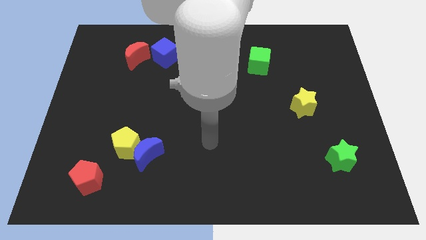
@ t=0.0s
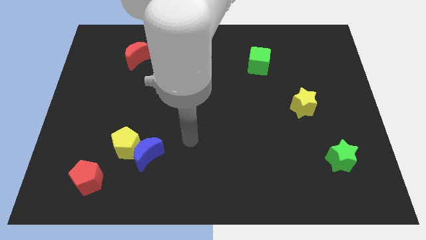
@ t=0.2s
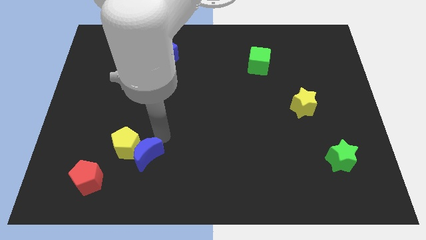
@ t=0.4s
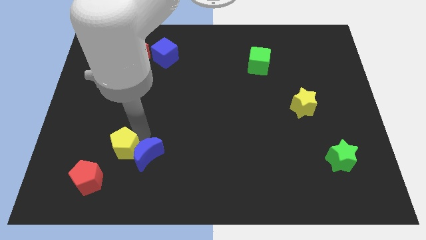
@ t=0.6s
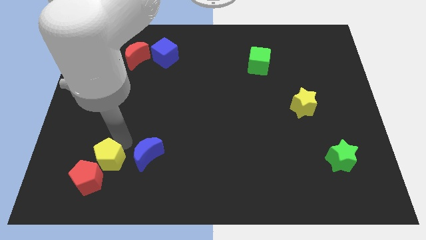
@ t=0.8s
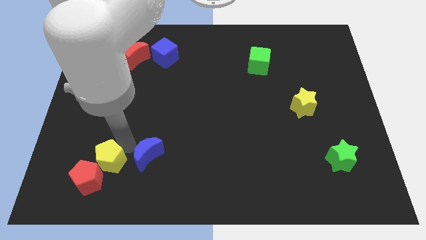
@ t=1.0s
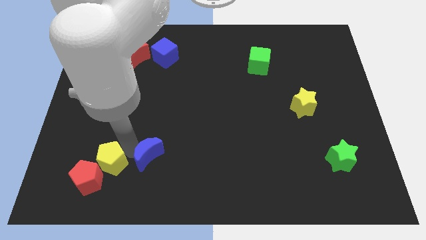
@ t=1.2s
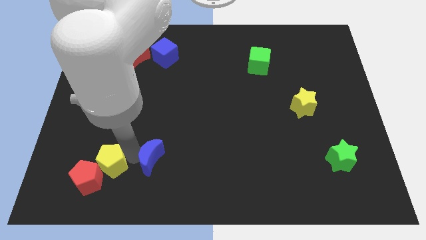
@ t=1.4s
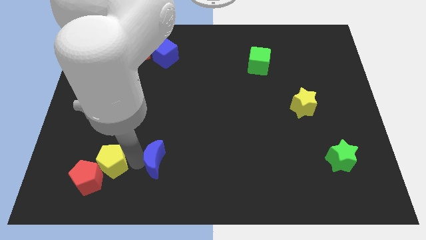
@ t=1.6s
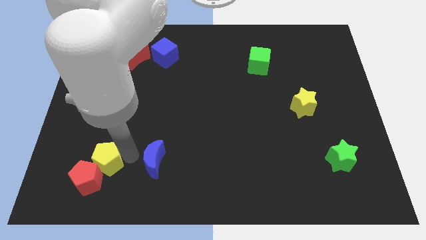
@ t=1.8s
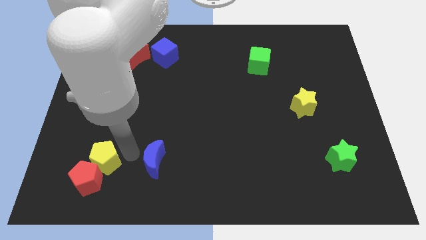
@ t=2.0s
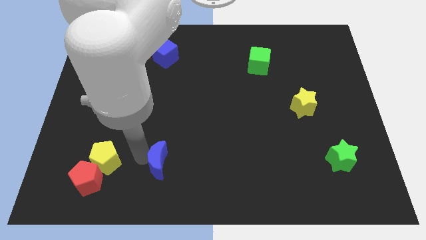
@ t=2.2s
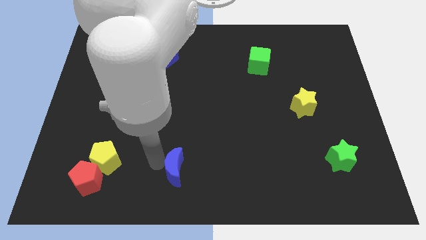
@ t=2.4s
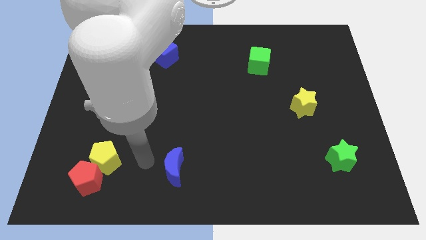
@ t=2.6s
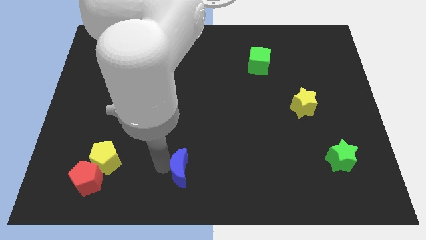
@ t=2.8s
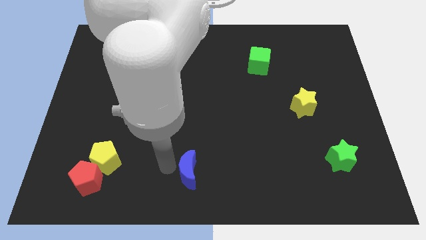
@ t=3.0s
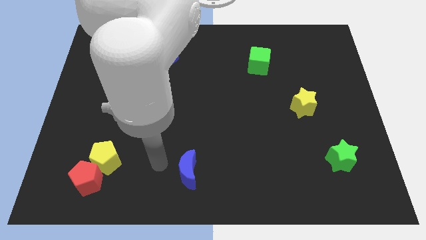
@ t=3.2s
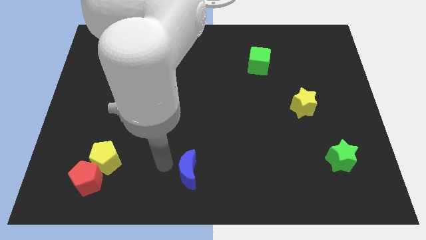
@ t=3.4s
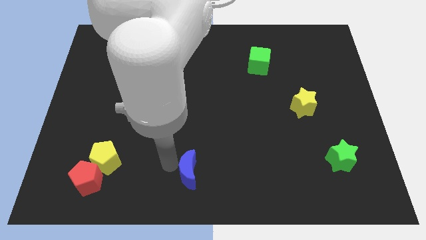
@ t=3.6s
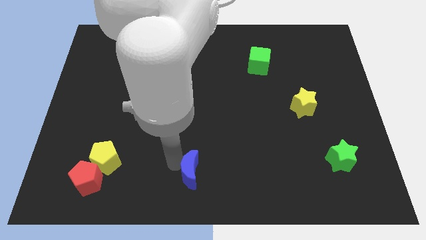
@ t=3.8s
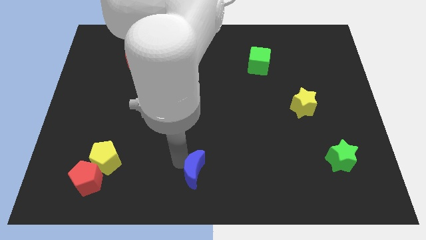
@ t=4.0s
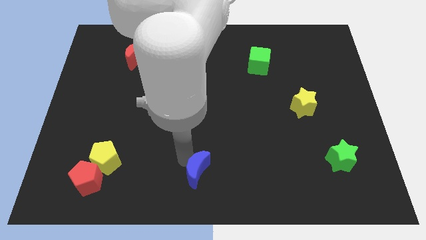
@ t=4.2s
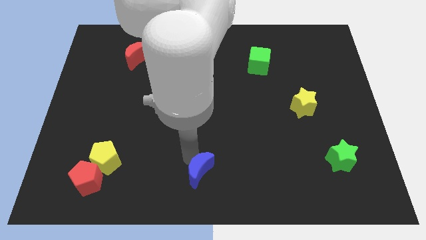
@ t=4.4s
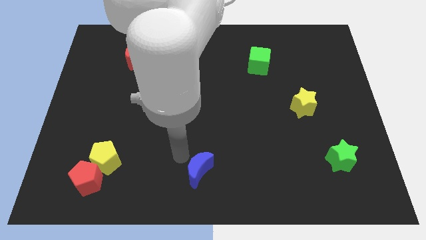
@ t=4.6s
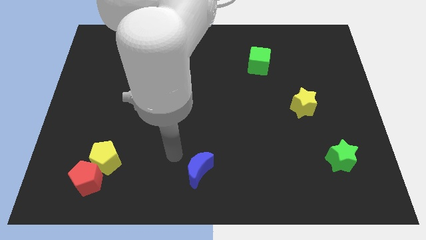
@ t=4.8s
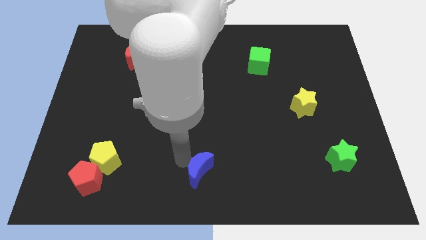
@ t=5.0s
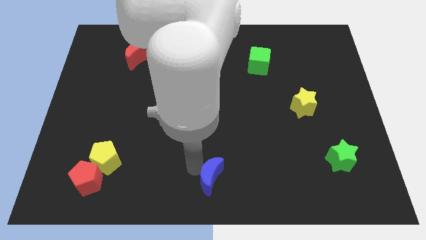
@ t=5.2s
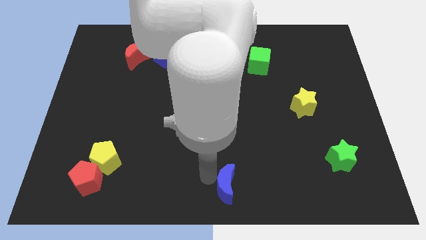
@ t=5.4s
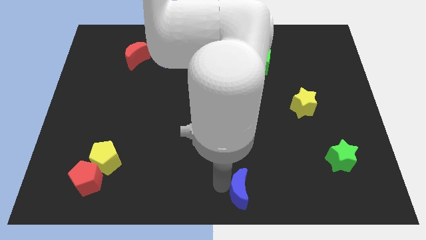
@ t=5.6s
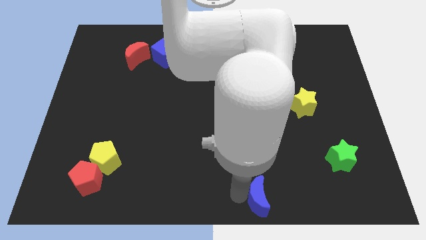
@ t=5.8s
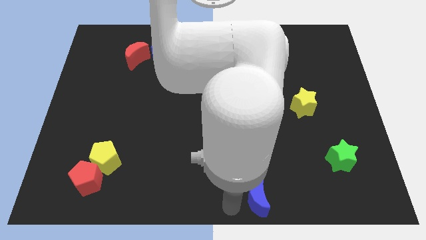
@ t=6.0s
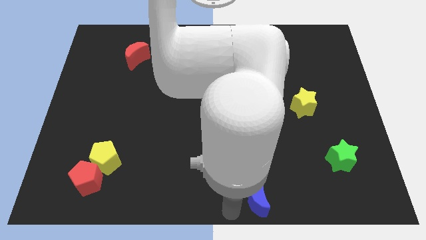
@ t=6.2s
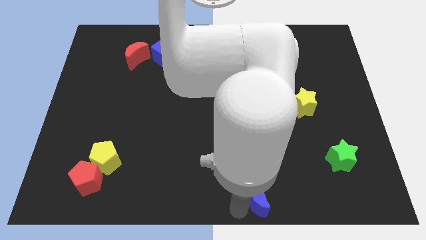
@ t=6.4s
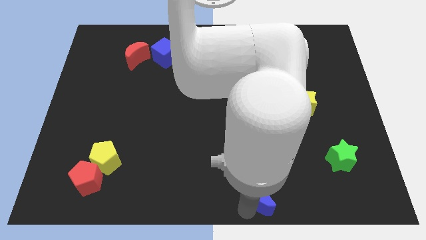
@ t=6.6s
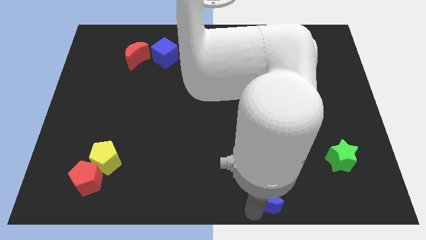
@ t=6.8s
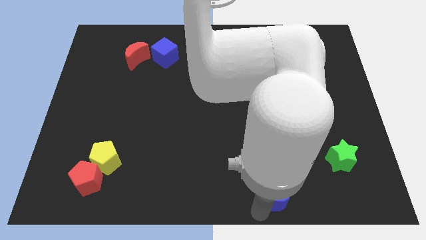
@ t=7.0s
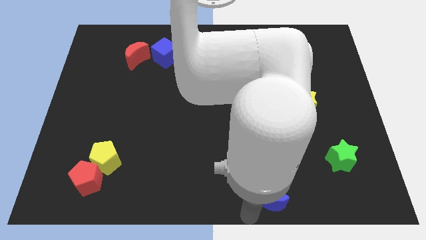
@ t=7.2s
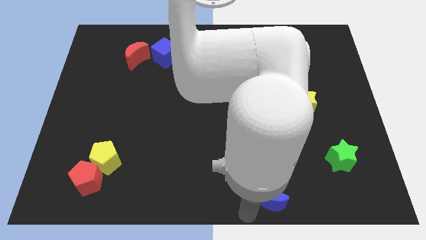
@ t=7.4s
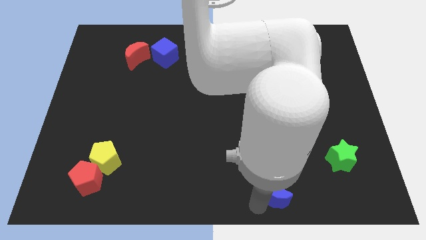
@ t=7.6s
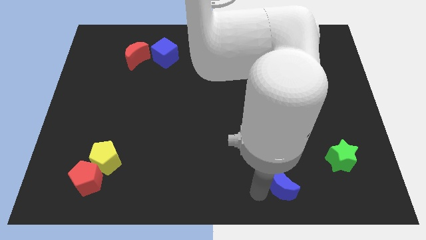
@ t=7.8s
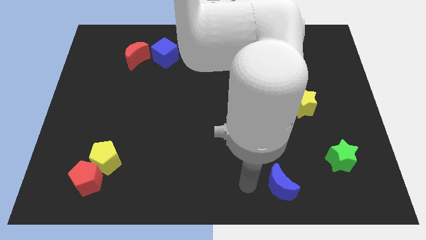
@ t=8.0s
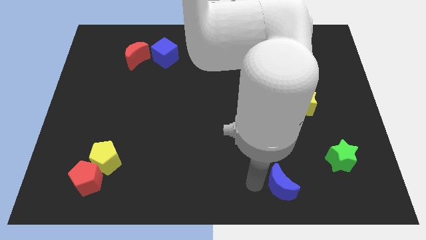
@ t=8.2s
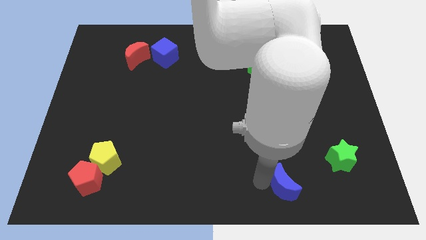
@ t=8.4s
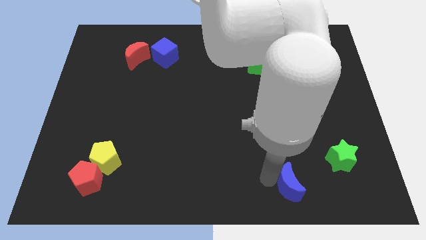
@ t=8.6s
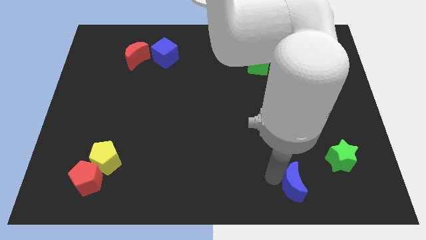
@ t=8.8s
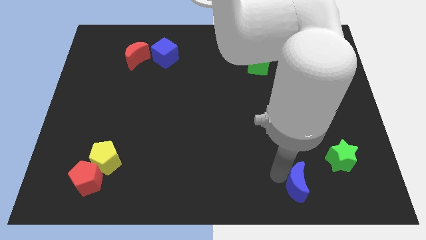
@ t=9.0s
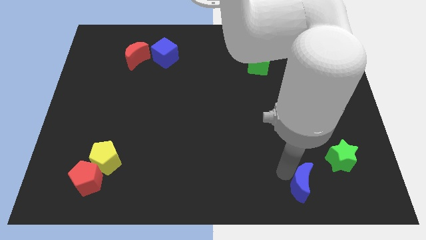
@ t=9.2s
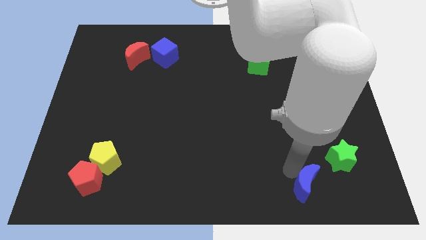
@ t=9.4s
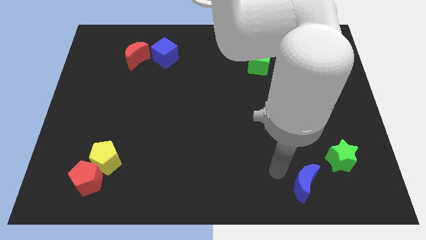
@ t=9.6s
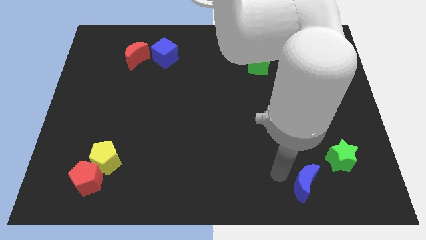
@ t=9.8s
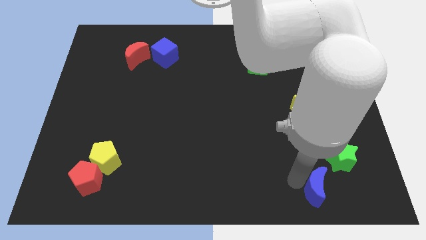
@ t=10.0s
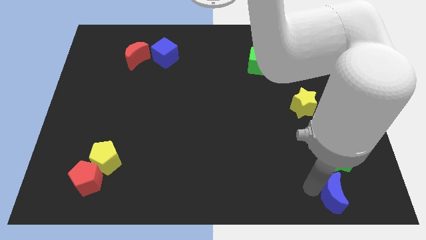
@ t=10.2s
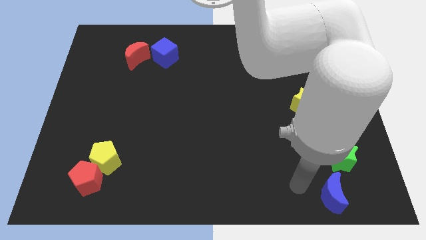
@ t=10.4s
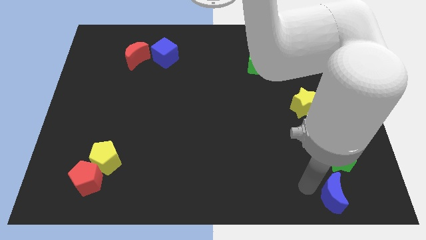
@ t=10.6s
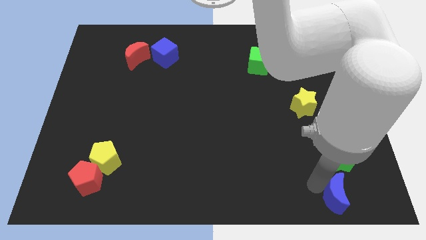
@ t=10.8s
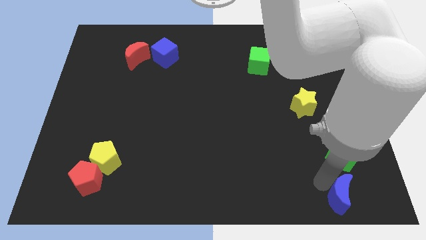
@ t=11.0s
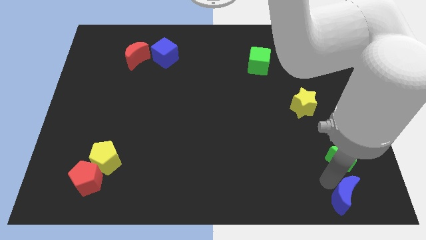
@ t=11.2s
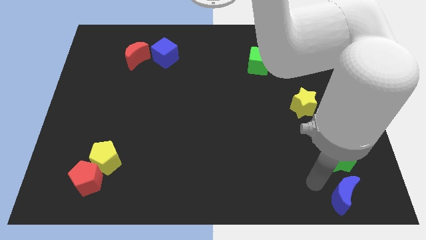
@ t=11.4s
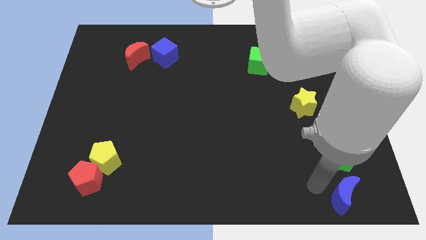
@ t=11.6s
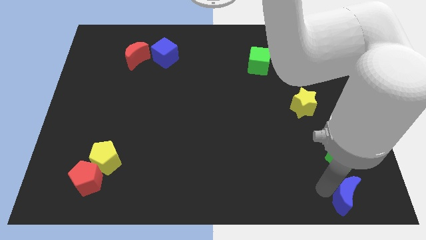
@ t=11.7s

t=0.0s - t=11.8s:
move the blue moon to the bottom right corner
